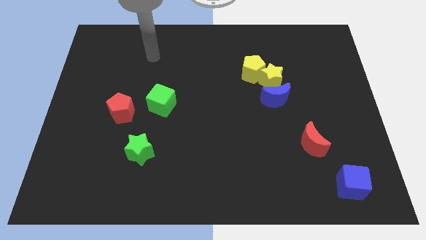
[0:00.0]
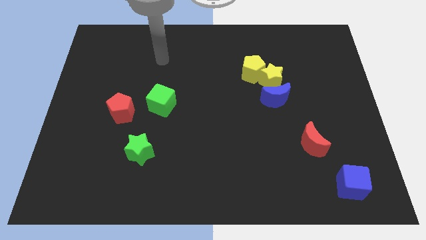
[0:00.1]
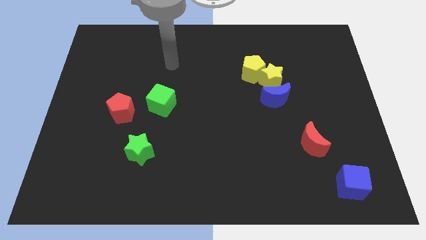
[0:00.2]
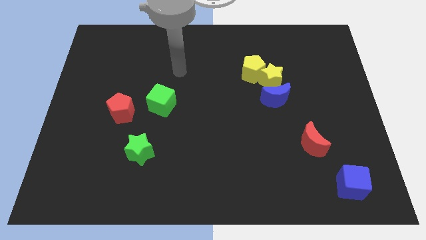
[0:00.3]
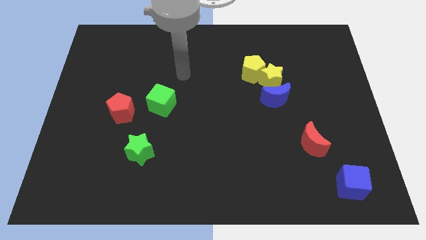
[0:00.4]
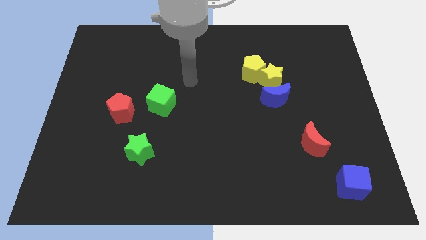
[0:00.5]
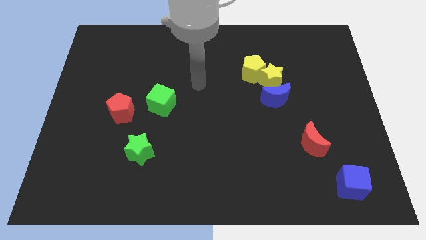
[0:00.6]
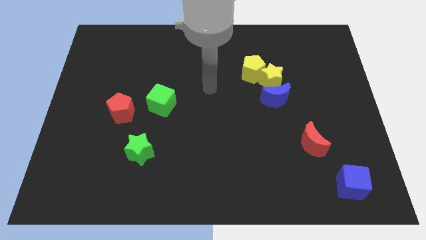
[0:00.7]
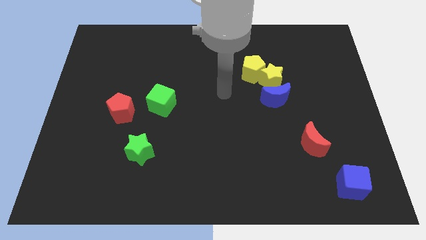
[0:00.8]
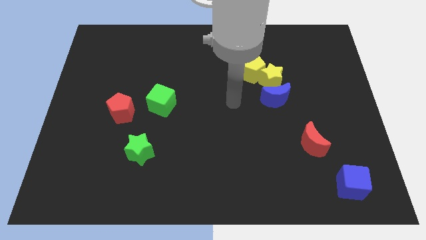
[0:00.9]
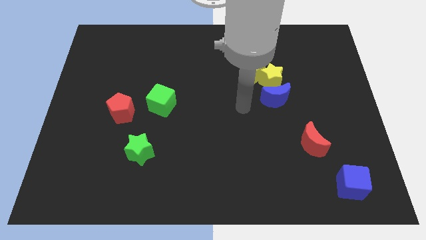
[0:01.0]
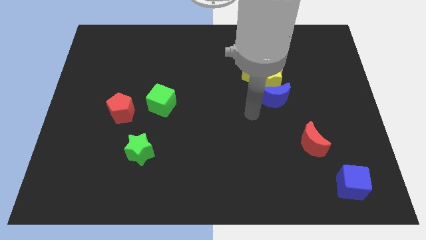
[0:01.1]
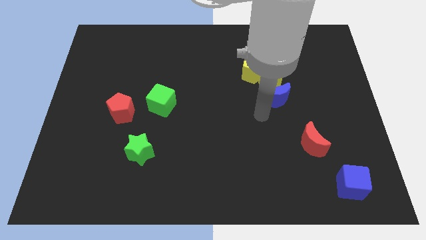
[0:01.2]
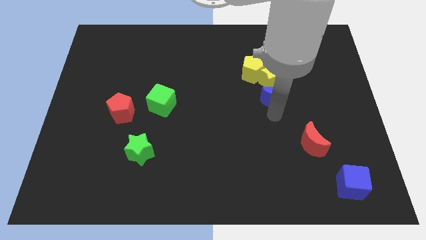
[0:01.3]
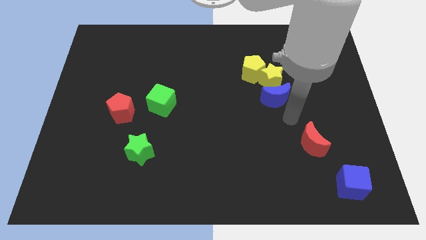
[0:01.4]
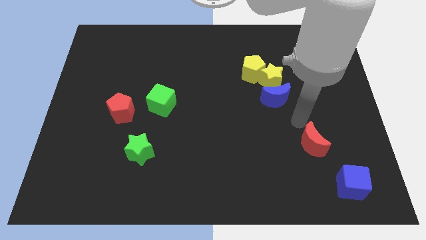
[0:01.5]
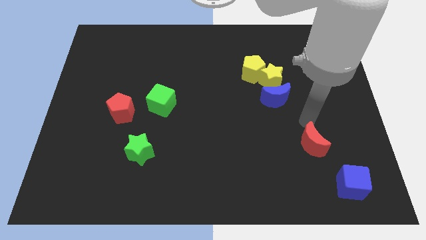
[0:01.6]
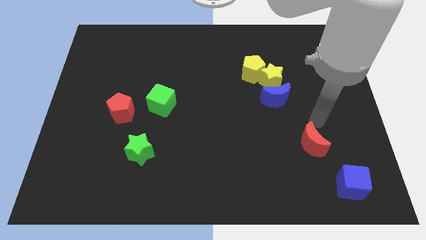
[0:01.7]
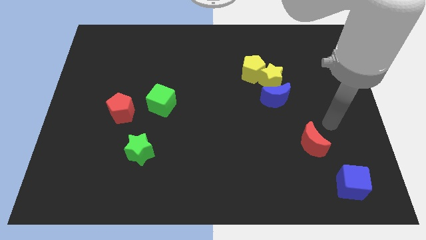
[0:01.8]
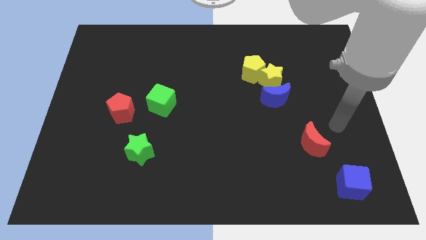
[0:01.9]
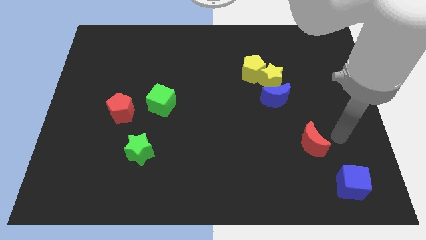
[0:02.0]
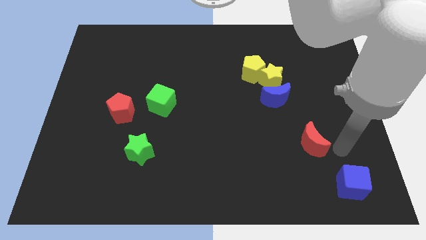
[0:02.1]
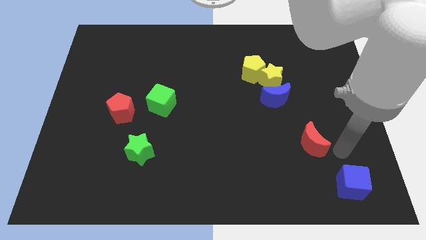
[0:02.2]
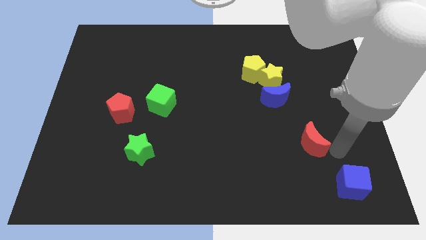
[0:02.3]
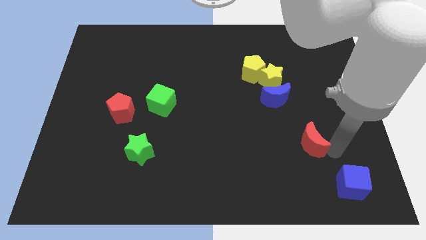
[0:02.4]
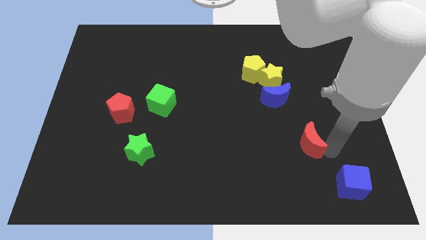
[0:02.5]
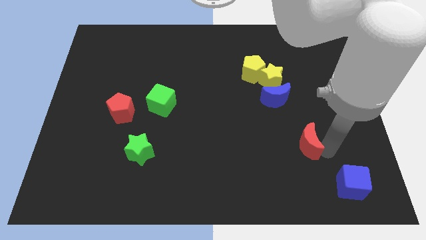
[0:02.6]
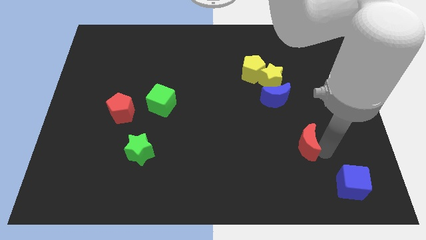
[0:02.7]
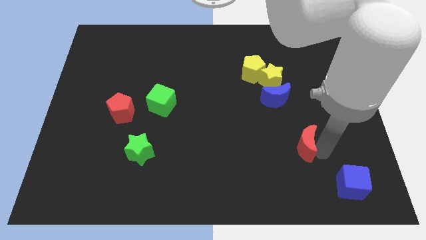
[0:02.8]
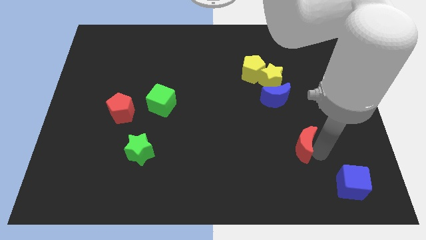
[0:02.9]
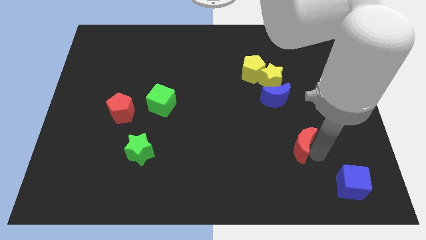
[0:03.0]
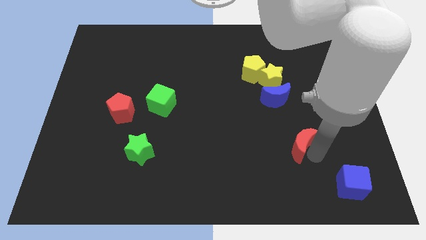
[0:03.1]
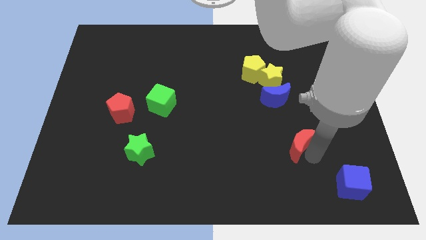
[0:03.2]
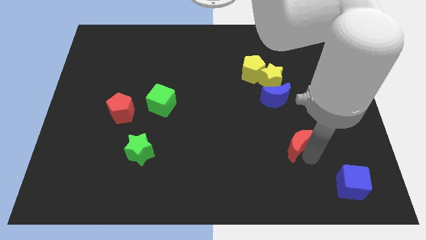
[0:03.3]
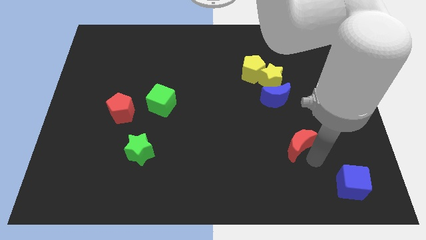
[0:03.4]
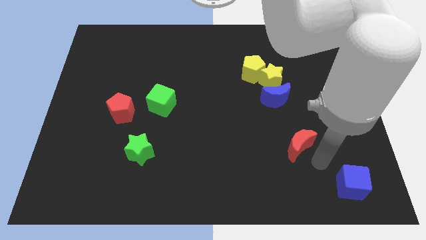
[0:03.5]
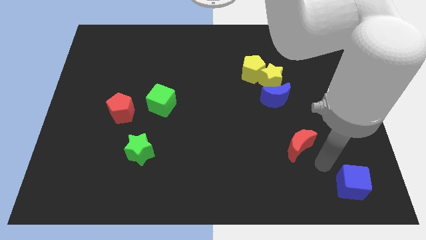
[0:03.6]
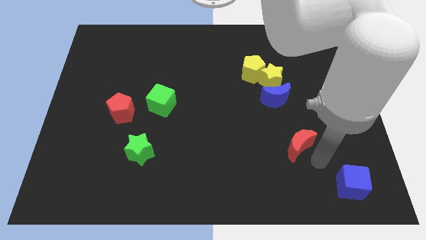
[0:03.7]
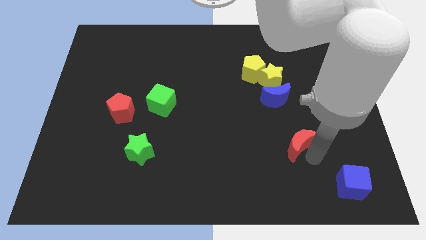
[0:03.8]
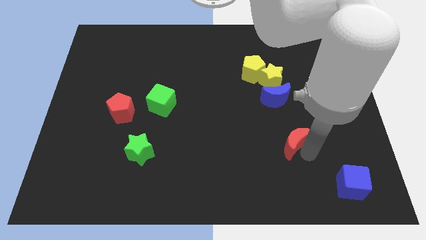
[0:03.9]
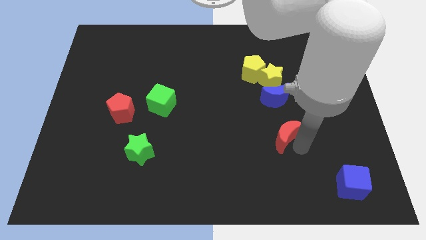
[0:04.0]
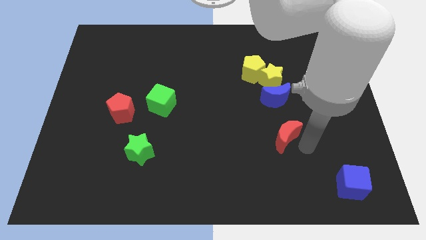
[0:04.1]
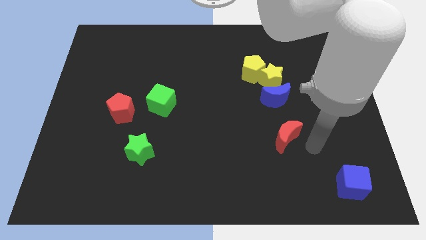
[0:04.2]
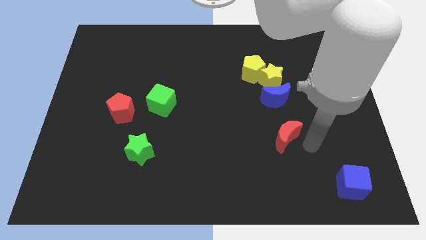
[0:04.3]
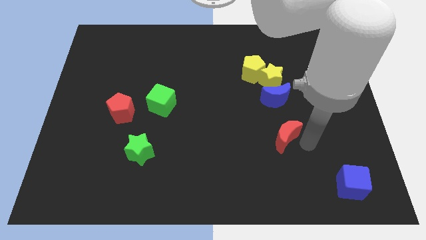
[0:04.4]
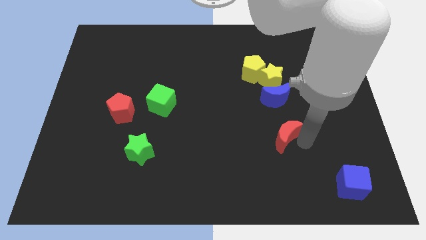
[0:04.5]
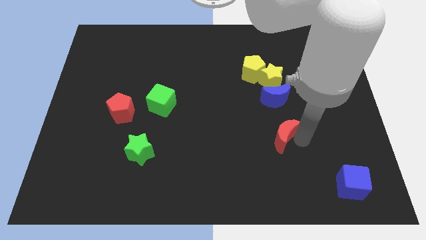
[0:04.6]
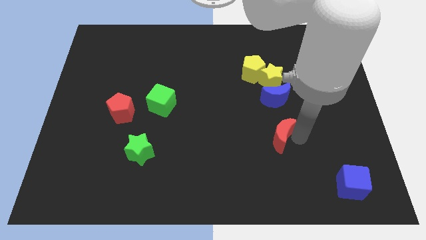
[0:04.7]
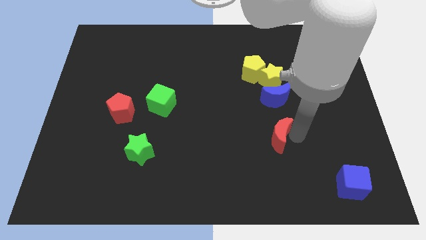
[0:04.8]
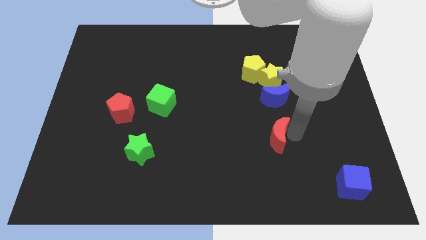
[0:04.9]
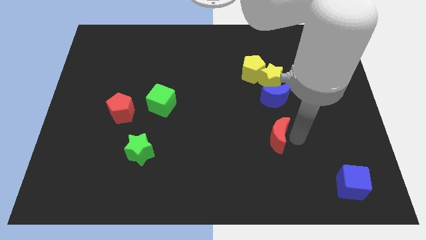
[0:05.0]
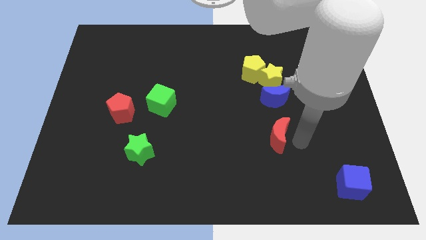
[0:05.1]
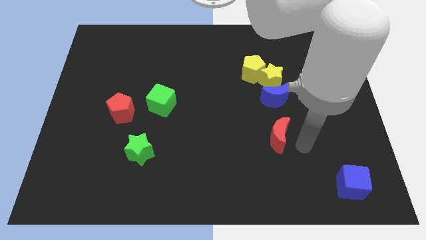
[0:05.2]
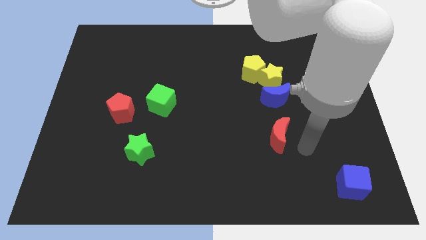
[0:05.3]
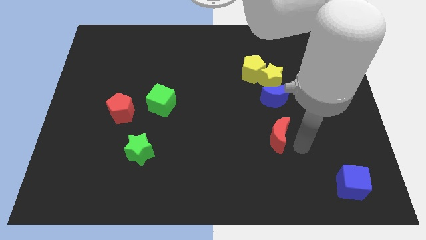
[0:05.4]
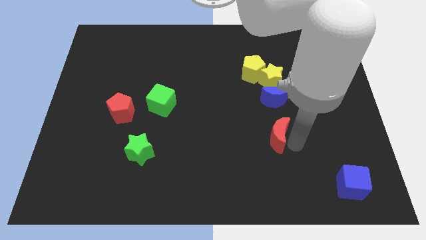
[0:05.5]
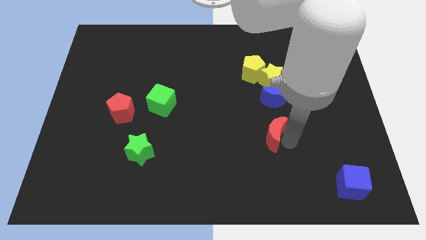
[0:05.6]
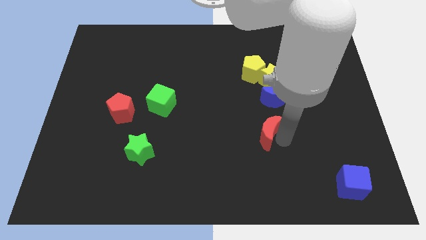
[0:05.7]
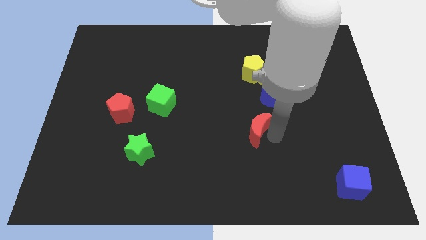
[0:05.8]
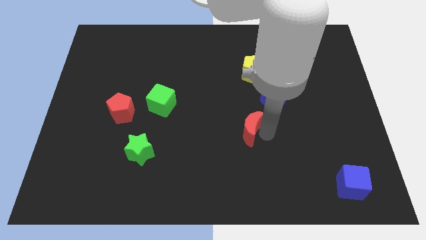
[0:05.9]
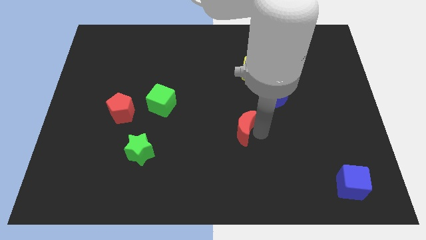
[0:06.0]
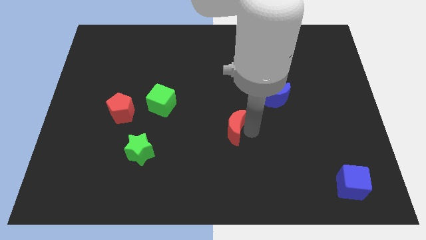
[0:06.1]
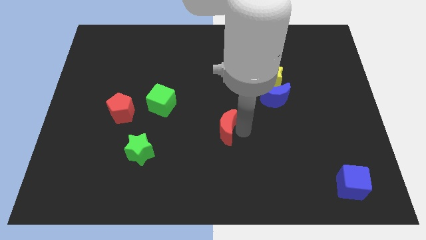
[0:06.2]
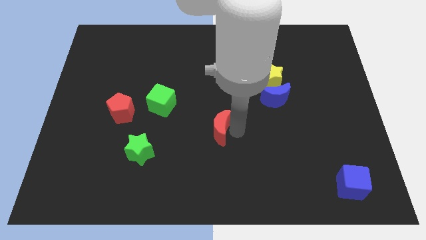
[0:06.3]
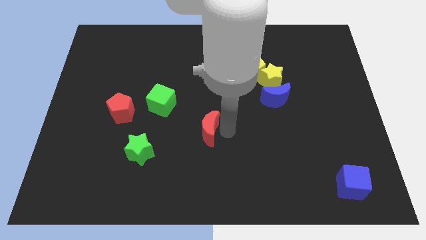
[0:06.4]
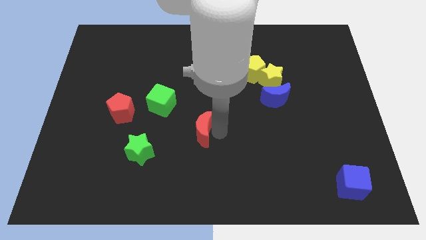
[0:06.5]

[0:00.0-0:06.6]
move the red moon to the bottom right of the green cube

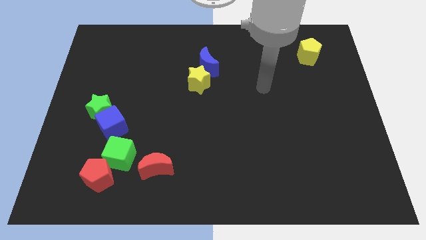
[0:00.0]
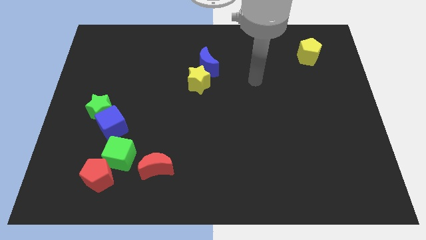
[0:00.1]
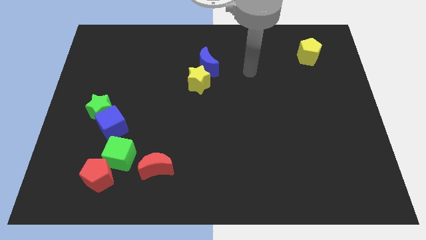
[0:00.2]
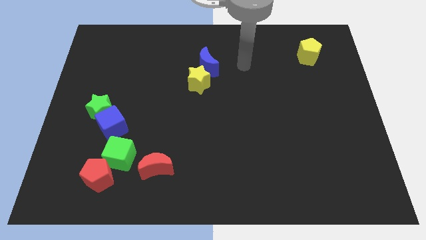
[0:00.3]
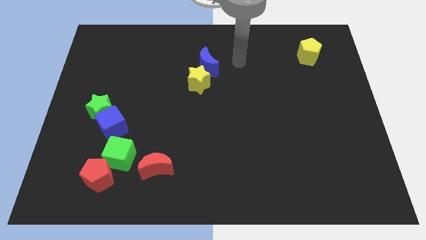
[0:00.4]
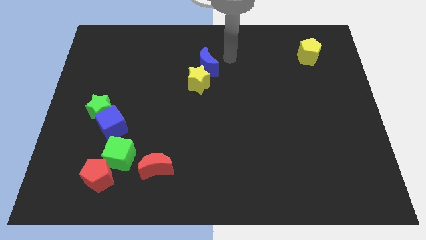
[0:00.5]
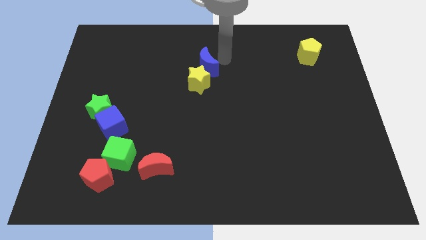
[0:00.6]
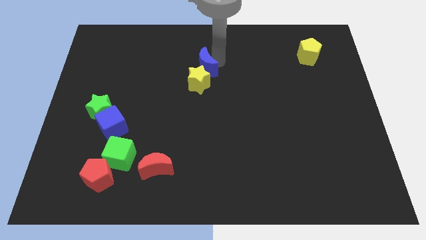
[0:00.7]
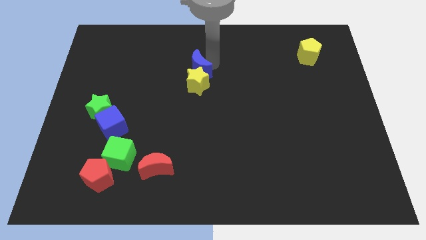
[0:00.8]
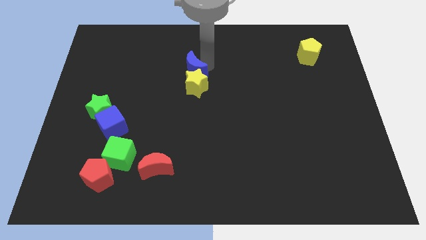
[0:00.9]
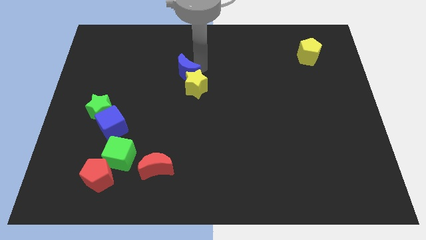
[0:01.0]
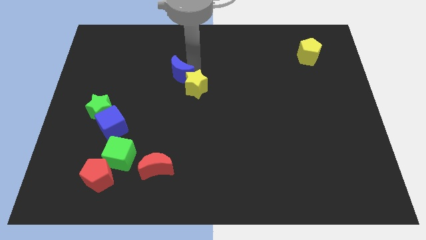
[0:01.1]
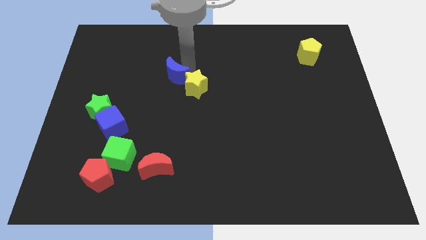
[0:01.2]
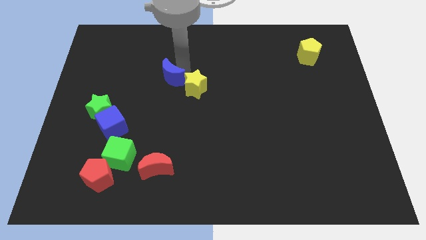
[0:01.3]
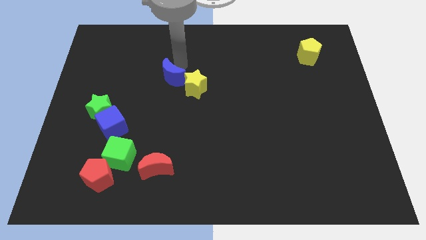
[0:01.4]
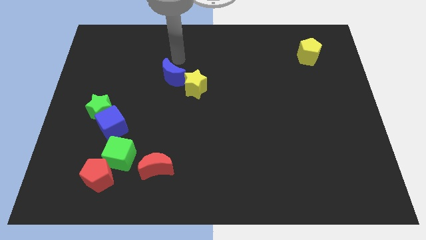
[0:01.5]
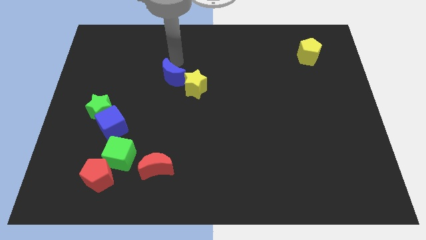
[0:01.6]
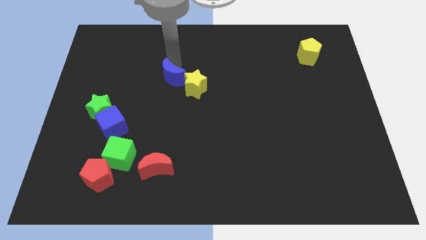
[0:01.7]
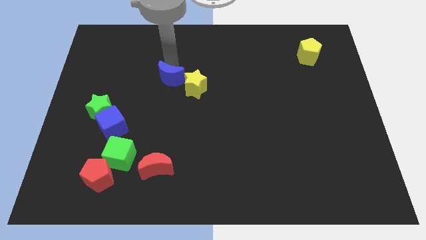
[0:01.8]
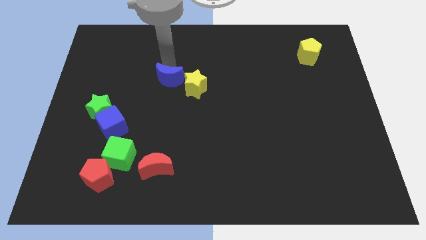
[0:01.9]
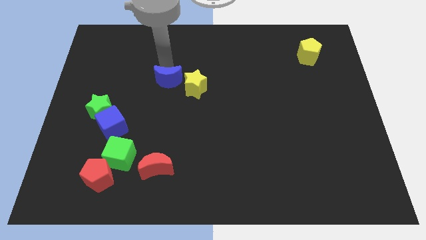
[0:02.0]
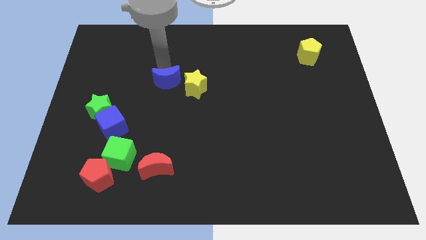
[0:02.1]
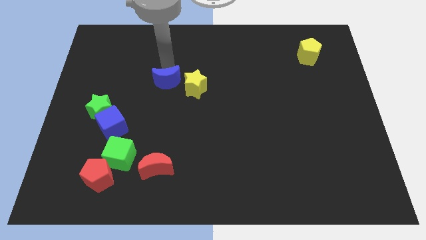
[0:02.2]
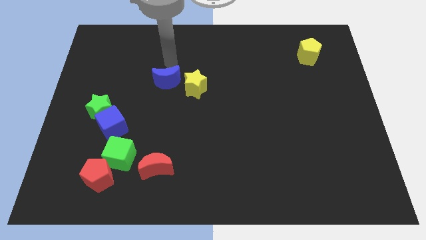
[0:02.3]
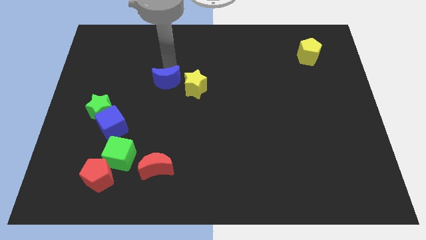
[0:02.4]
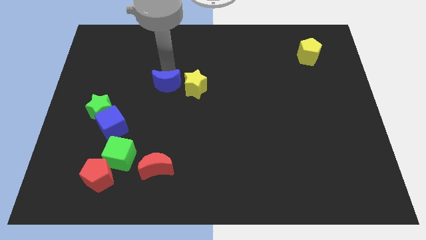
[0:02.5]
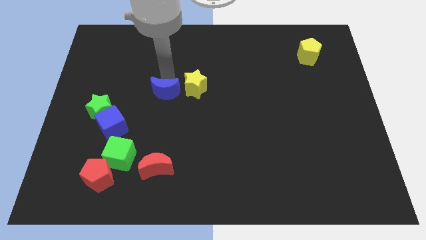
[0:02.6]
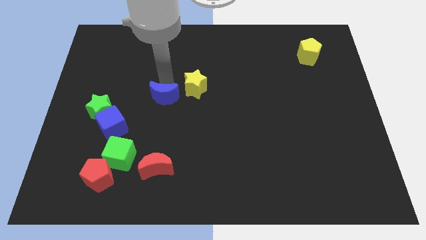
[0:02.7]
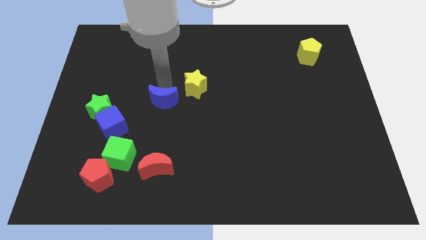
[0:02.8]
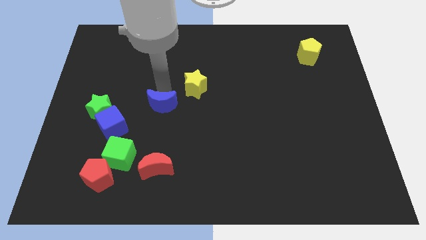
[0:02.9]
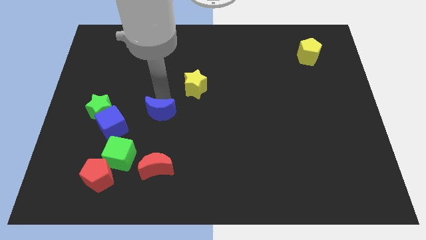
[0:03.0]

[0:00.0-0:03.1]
slide the blue moon just right of the blue cube
